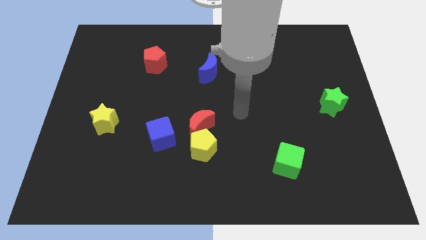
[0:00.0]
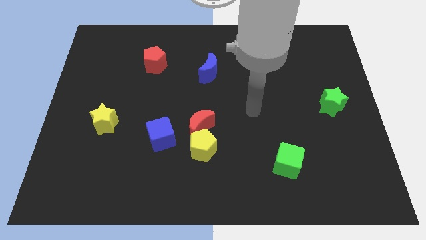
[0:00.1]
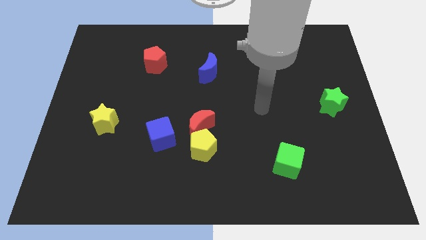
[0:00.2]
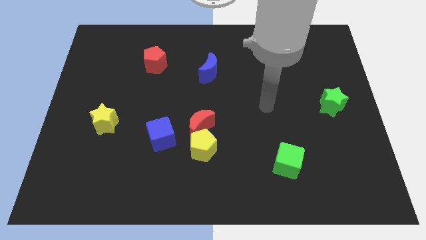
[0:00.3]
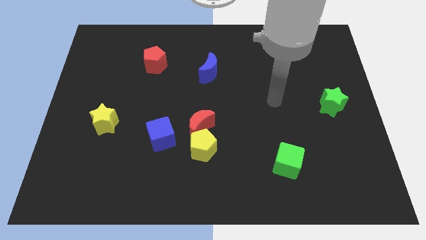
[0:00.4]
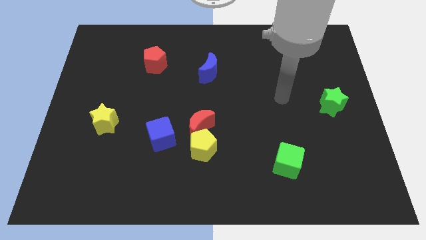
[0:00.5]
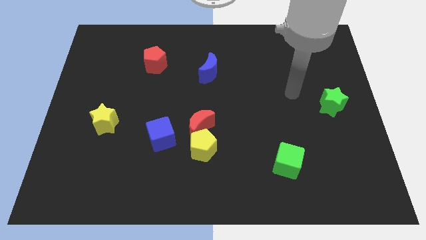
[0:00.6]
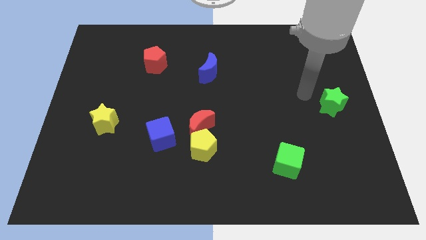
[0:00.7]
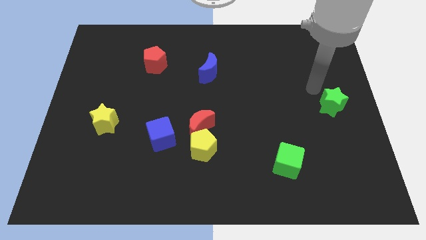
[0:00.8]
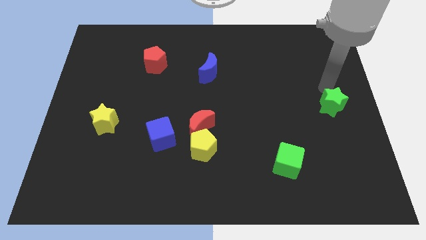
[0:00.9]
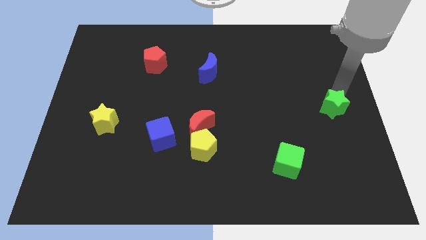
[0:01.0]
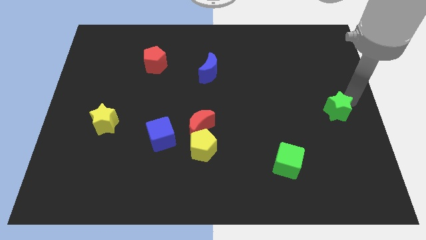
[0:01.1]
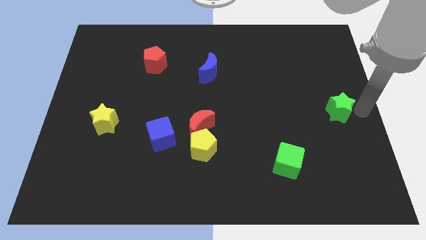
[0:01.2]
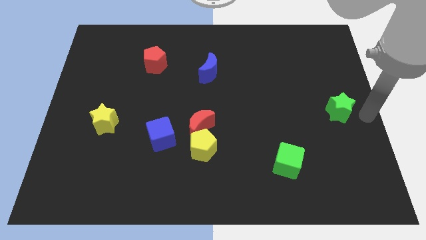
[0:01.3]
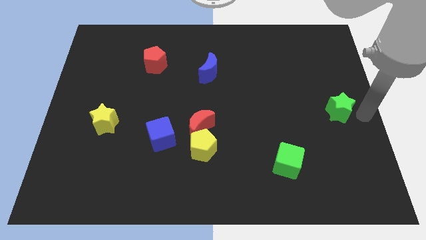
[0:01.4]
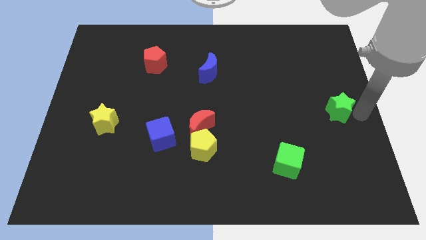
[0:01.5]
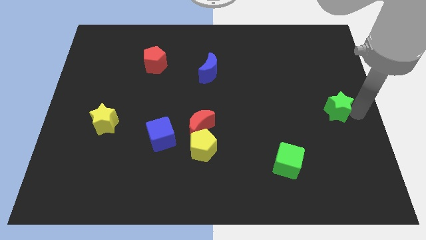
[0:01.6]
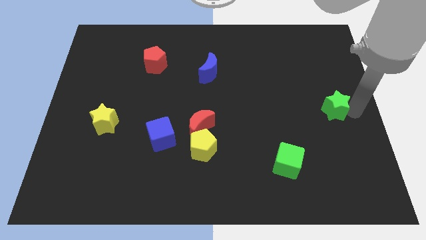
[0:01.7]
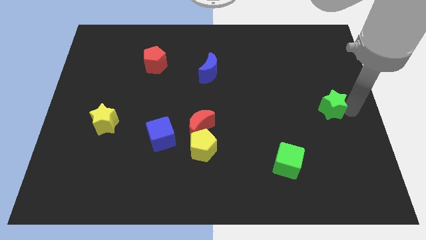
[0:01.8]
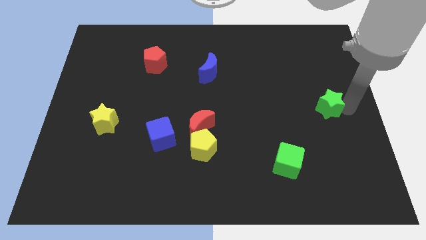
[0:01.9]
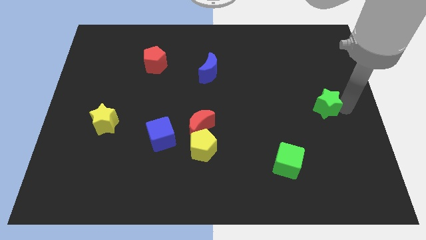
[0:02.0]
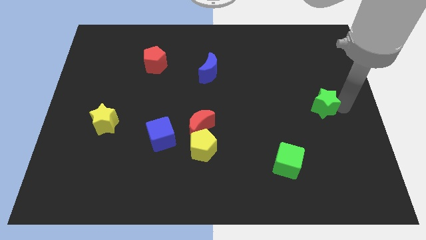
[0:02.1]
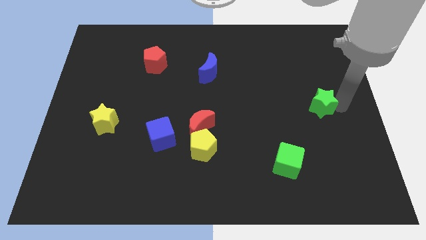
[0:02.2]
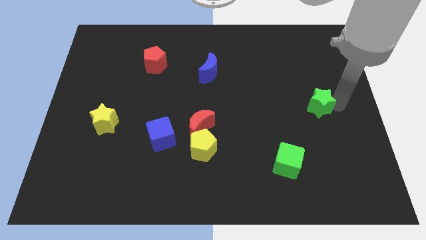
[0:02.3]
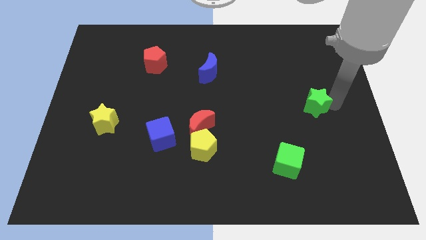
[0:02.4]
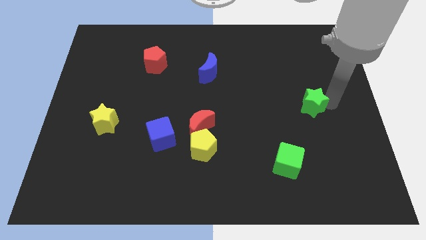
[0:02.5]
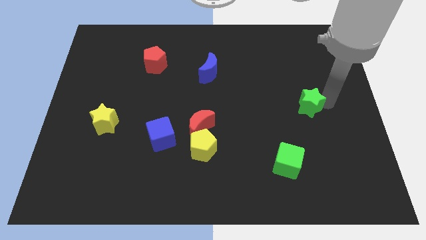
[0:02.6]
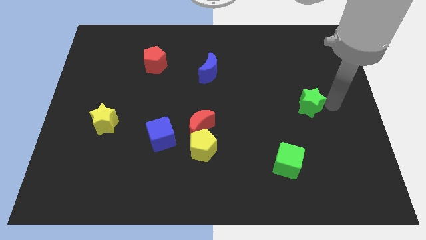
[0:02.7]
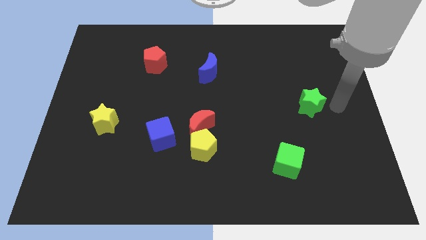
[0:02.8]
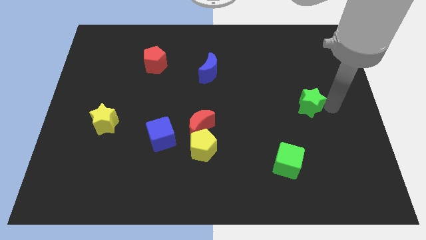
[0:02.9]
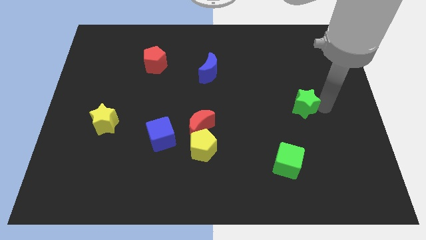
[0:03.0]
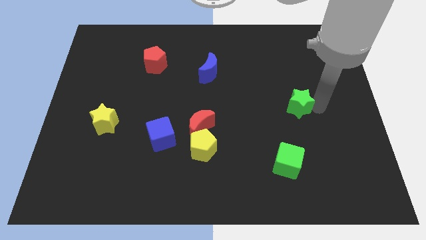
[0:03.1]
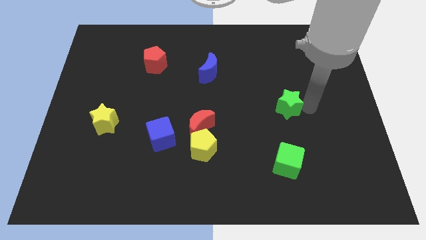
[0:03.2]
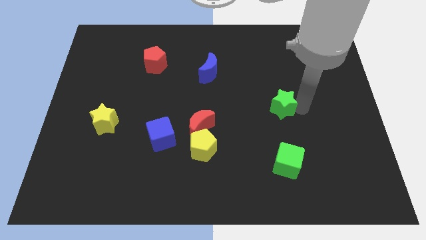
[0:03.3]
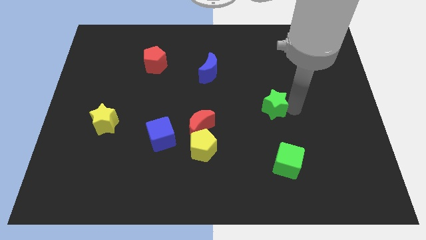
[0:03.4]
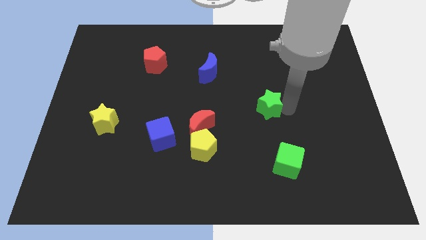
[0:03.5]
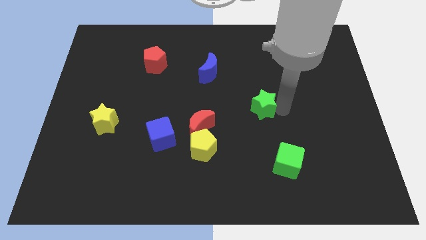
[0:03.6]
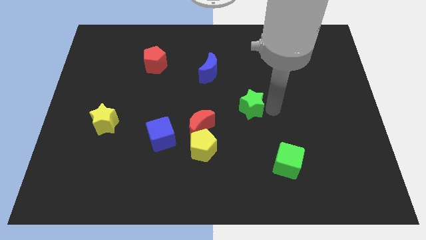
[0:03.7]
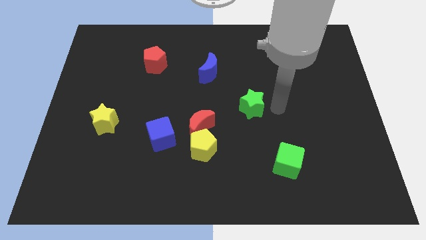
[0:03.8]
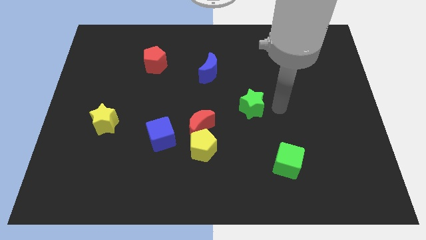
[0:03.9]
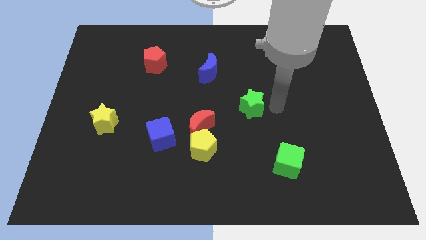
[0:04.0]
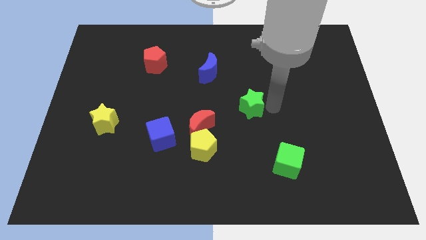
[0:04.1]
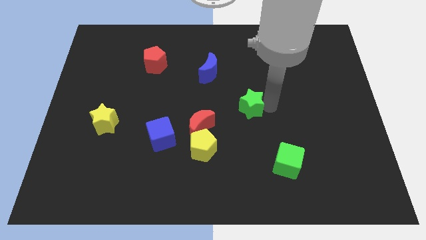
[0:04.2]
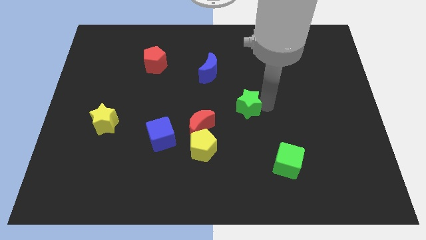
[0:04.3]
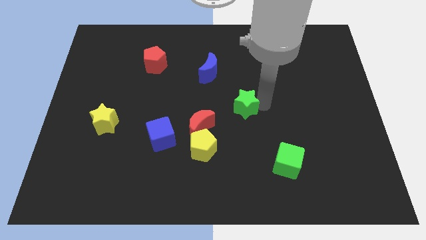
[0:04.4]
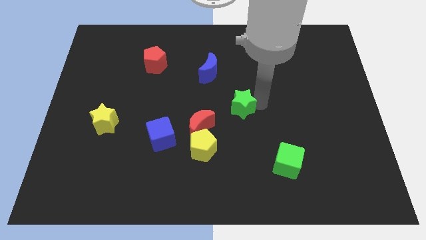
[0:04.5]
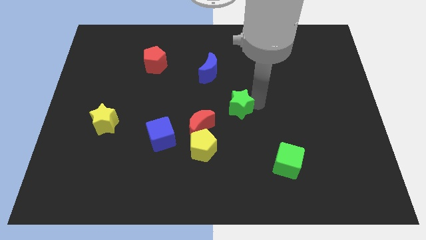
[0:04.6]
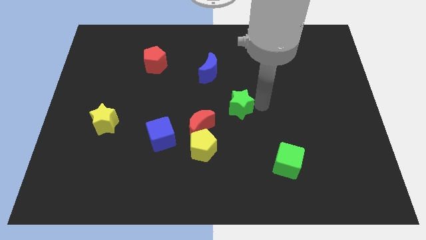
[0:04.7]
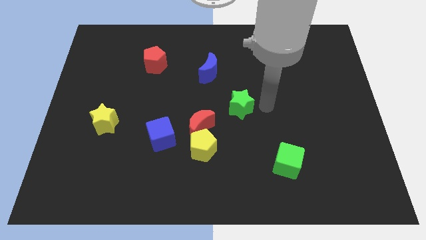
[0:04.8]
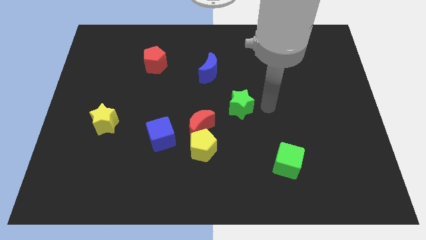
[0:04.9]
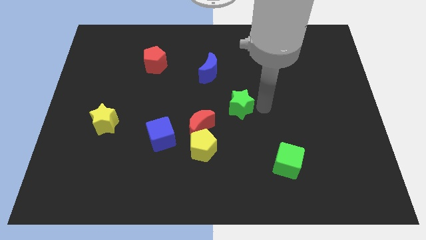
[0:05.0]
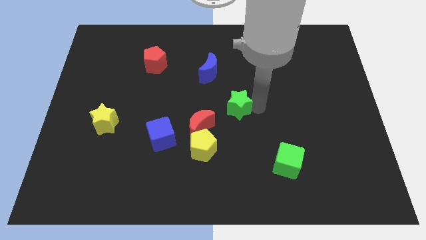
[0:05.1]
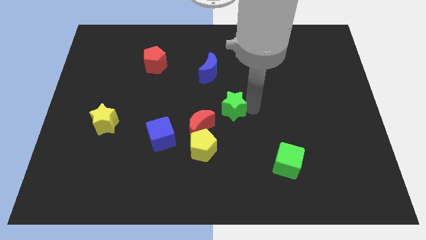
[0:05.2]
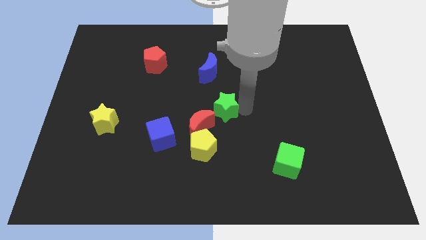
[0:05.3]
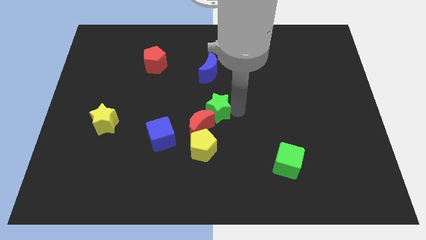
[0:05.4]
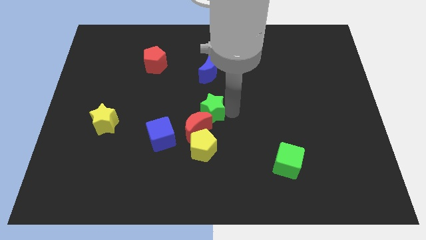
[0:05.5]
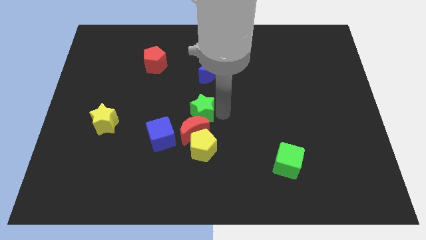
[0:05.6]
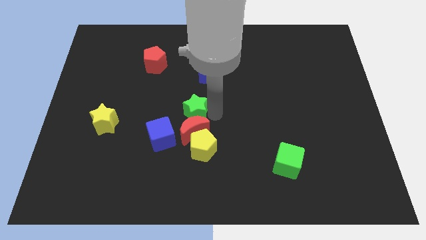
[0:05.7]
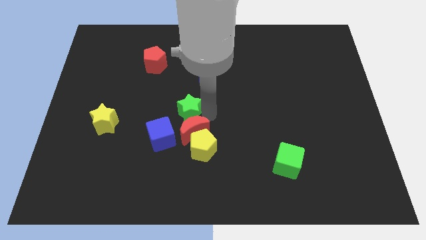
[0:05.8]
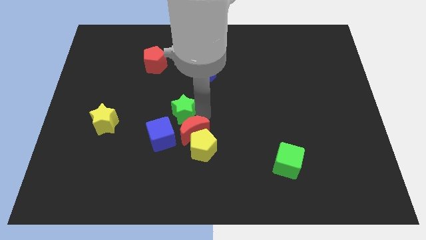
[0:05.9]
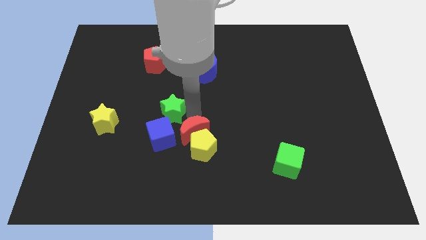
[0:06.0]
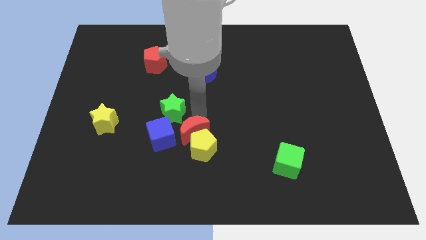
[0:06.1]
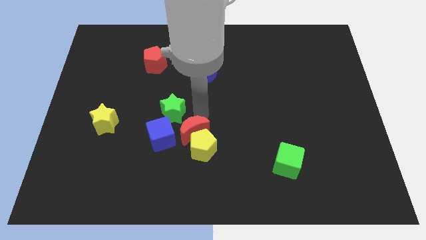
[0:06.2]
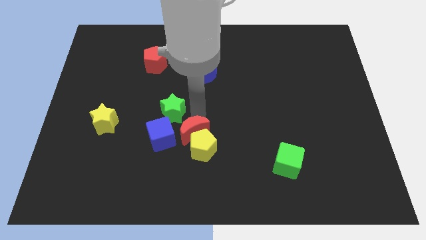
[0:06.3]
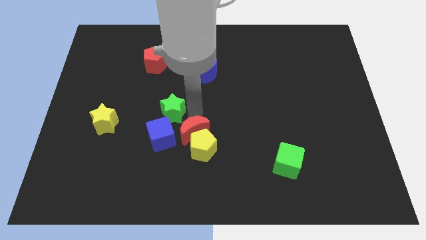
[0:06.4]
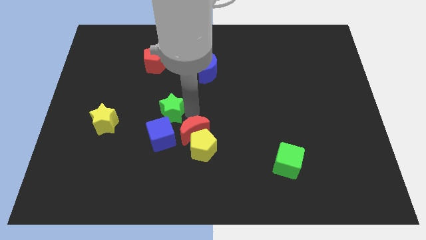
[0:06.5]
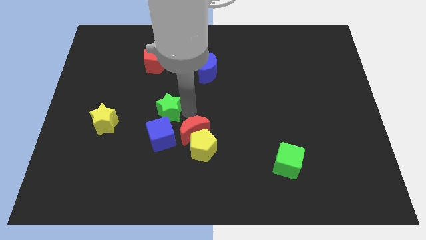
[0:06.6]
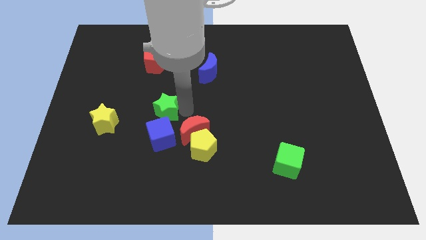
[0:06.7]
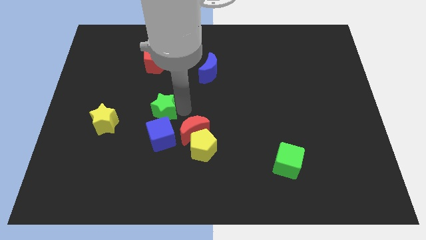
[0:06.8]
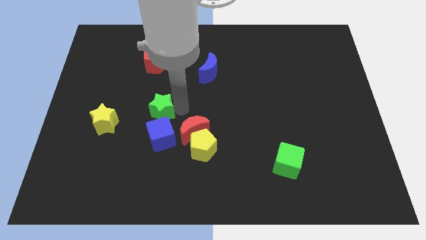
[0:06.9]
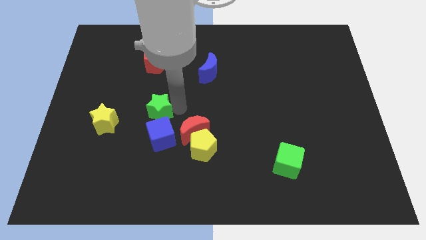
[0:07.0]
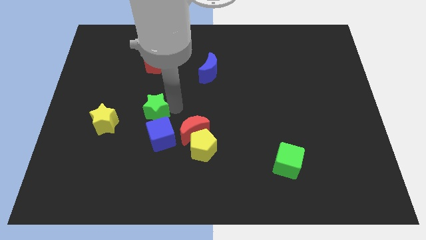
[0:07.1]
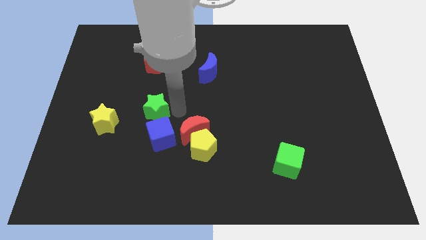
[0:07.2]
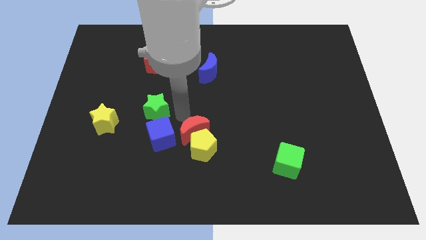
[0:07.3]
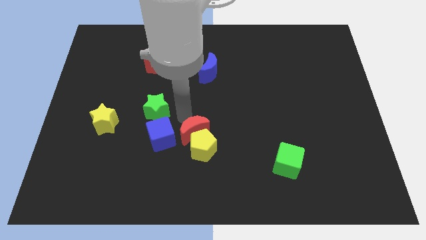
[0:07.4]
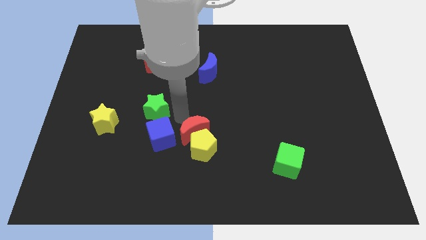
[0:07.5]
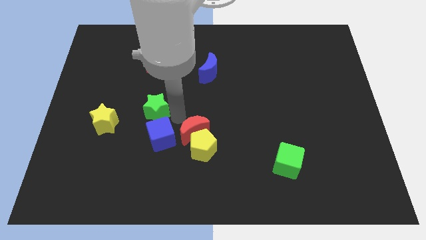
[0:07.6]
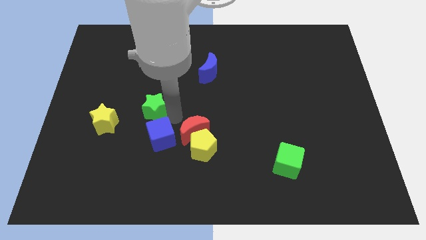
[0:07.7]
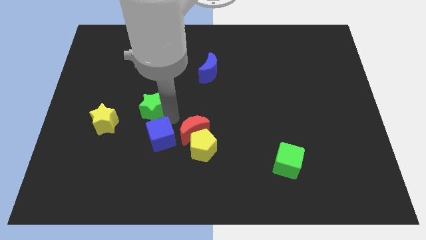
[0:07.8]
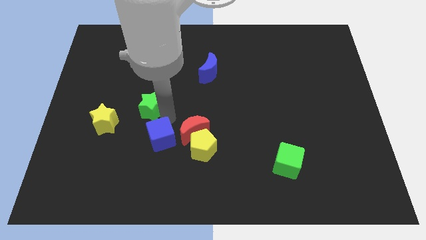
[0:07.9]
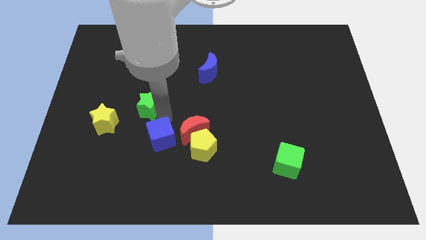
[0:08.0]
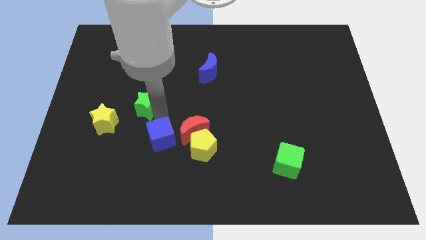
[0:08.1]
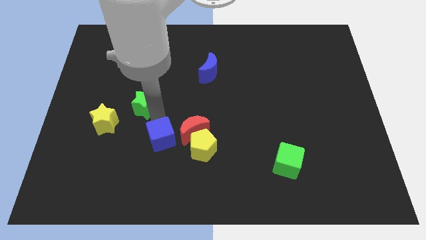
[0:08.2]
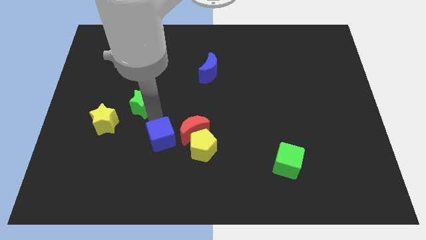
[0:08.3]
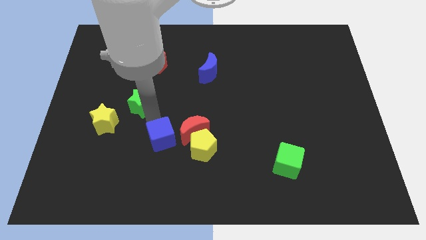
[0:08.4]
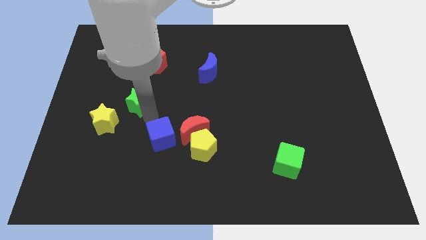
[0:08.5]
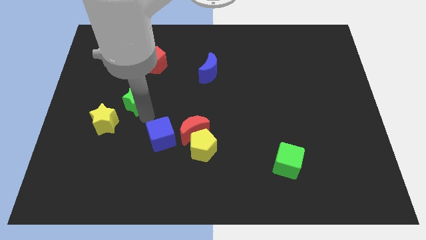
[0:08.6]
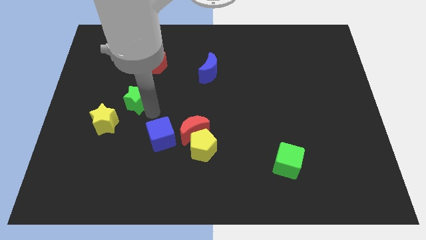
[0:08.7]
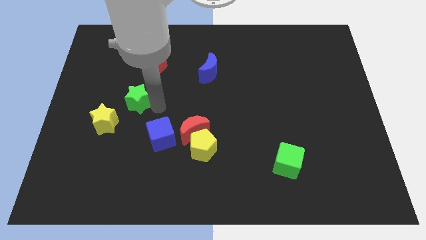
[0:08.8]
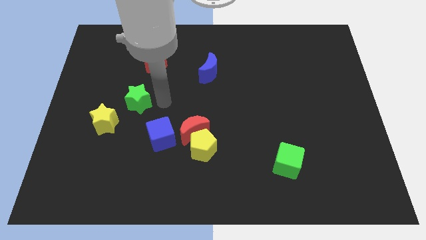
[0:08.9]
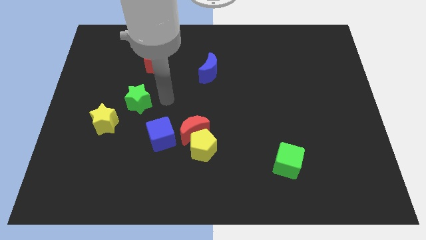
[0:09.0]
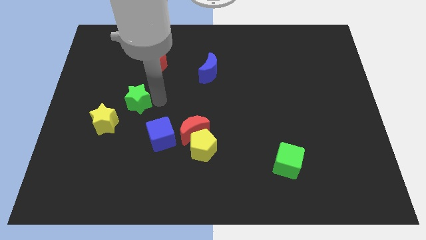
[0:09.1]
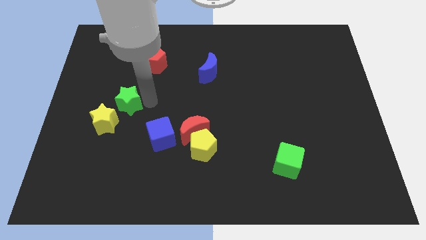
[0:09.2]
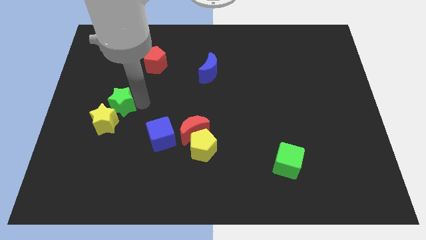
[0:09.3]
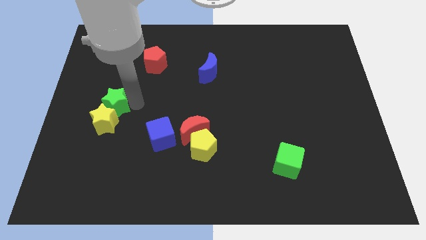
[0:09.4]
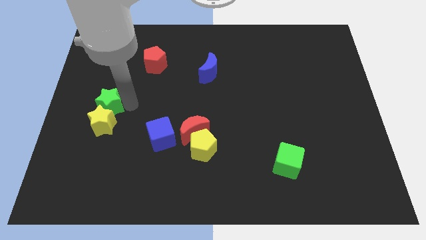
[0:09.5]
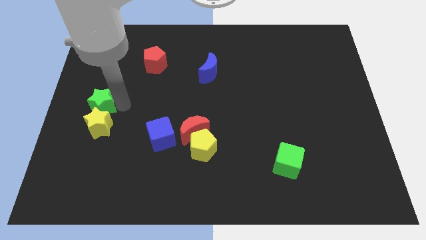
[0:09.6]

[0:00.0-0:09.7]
put the green star to the left side
